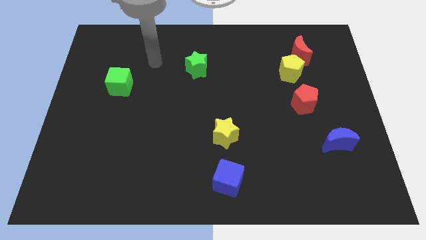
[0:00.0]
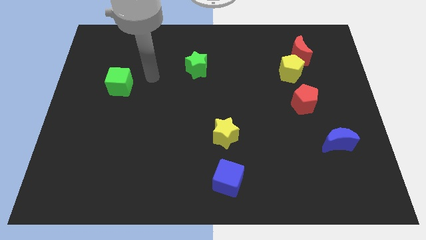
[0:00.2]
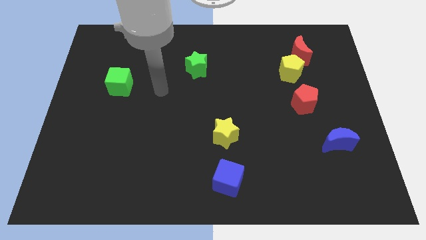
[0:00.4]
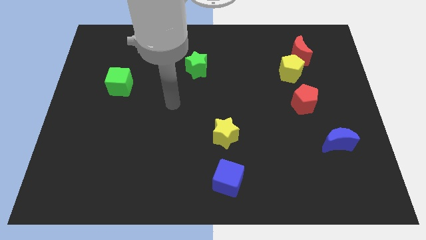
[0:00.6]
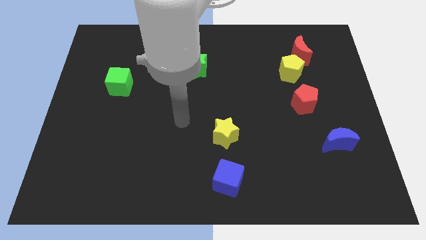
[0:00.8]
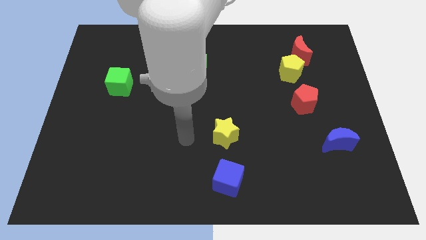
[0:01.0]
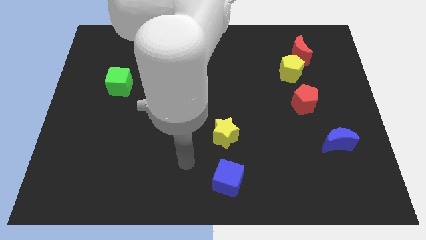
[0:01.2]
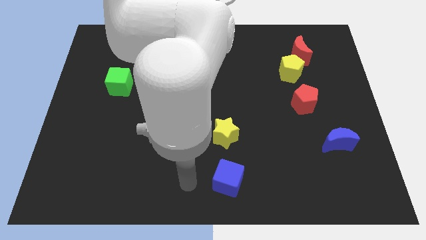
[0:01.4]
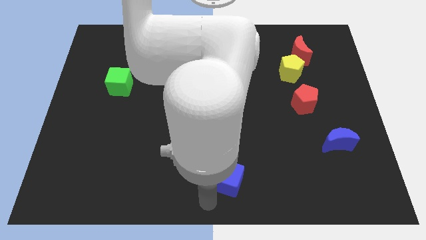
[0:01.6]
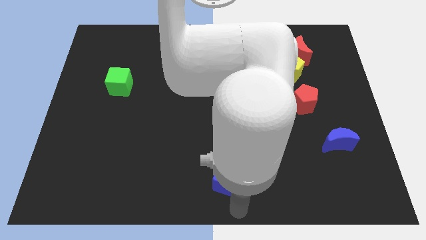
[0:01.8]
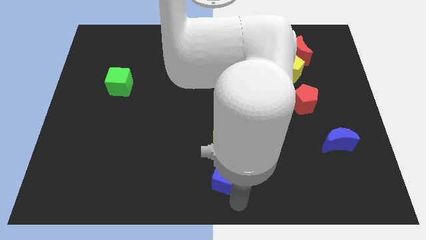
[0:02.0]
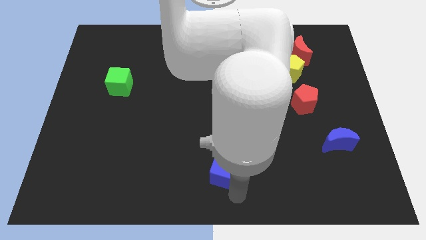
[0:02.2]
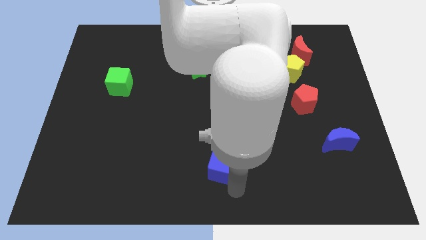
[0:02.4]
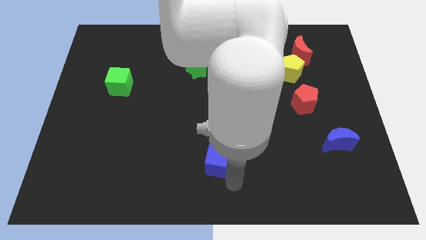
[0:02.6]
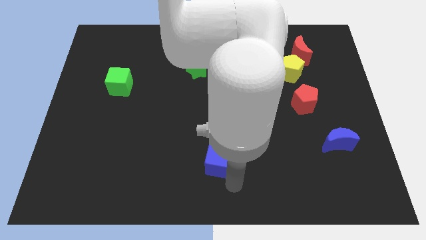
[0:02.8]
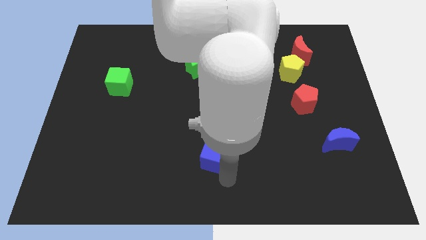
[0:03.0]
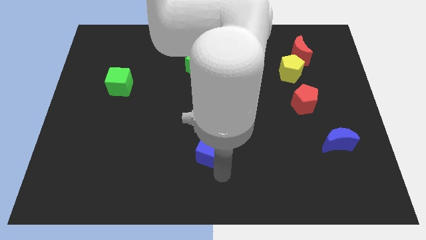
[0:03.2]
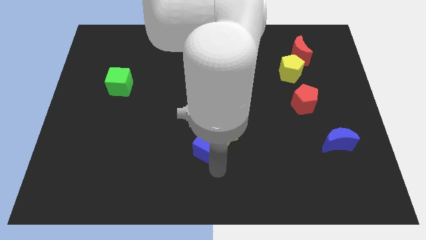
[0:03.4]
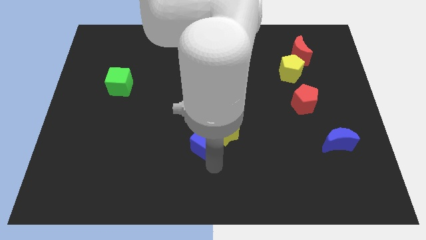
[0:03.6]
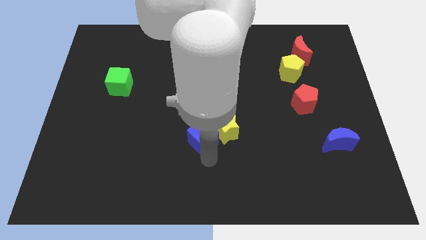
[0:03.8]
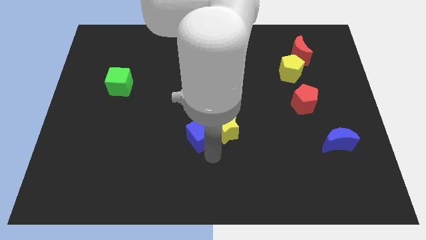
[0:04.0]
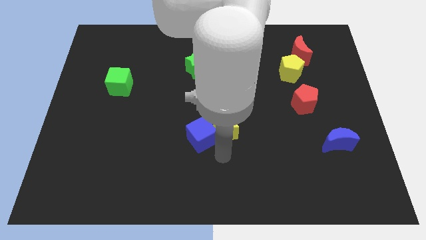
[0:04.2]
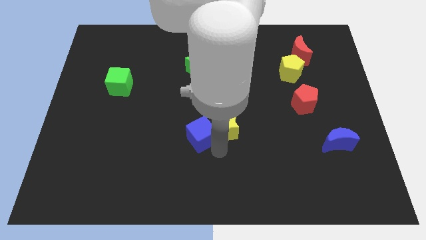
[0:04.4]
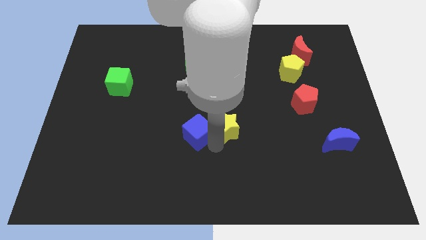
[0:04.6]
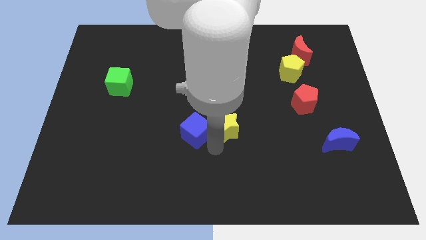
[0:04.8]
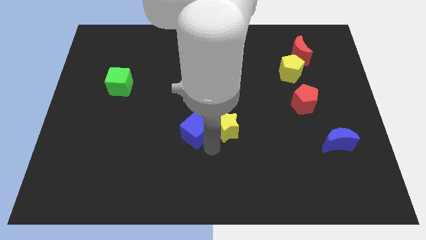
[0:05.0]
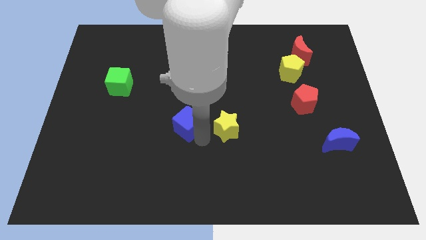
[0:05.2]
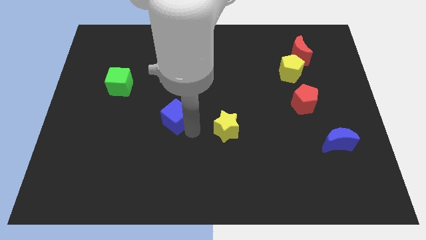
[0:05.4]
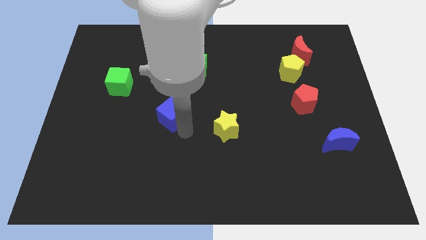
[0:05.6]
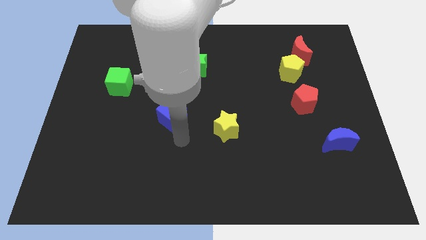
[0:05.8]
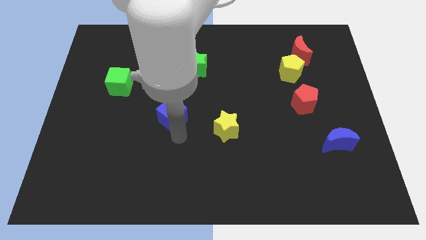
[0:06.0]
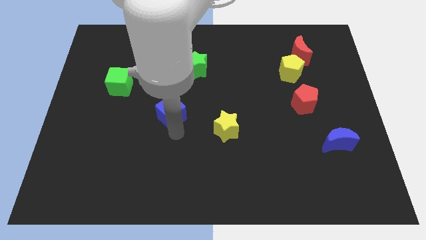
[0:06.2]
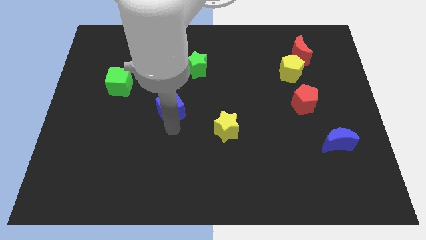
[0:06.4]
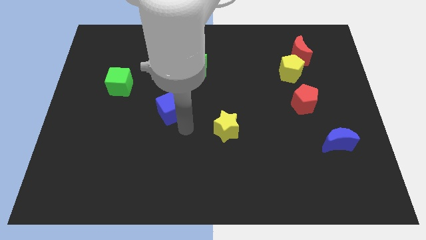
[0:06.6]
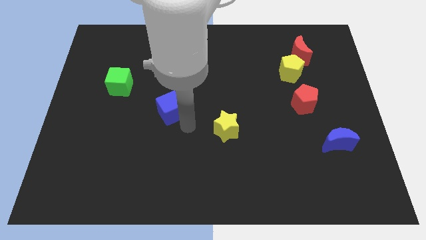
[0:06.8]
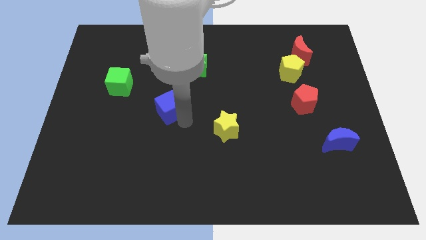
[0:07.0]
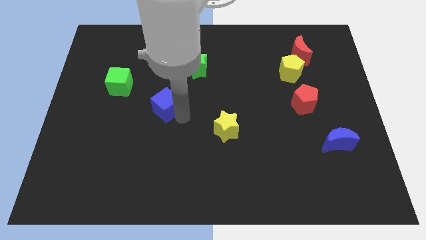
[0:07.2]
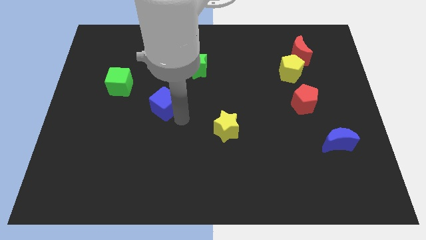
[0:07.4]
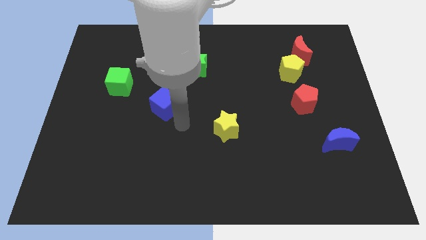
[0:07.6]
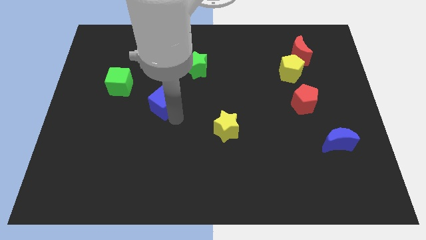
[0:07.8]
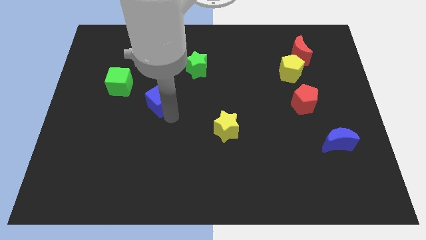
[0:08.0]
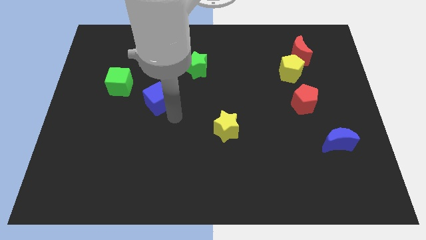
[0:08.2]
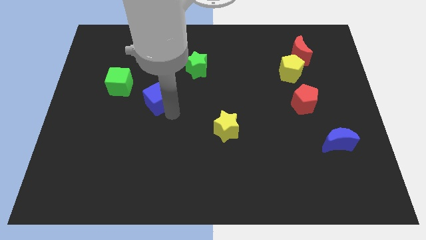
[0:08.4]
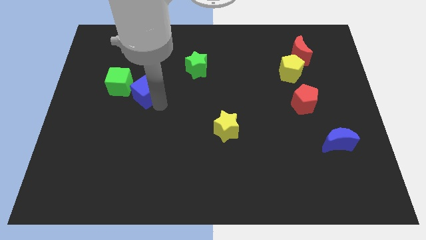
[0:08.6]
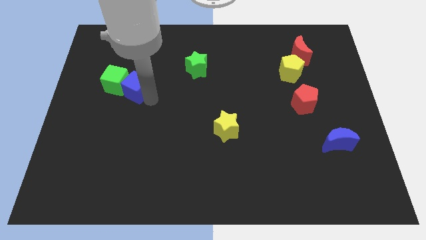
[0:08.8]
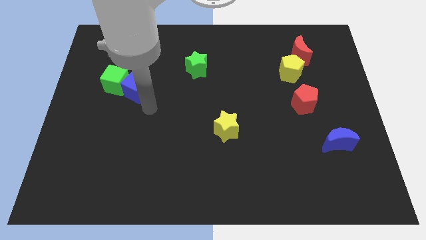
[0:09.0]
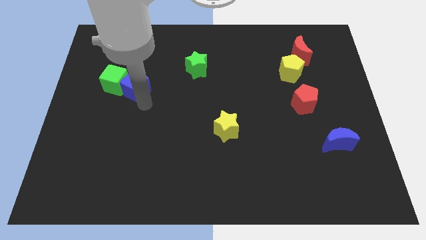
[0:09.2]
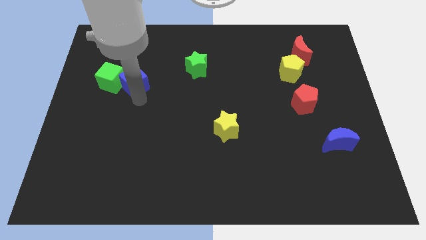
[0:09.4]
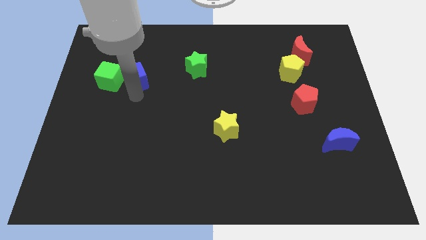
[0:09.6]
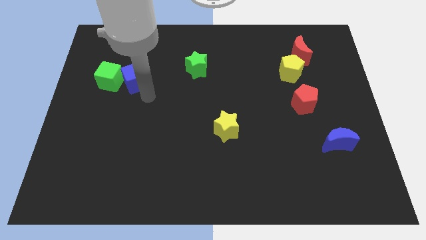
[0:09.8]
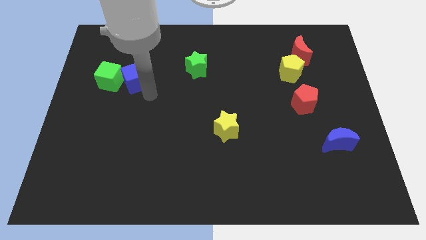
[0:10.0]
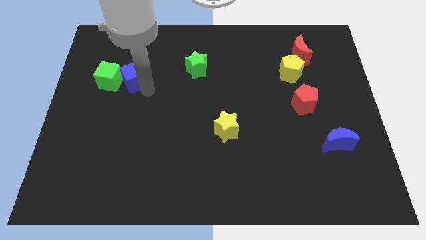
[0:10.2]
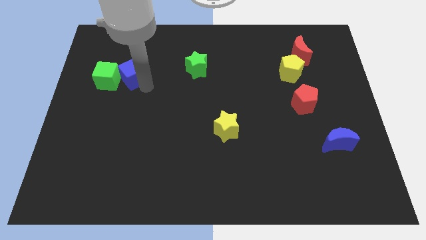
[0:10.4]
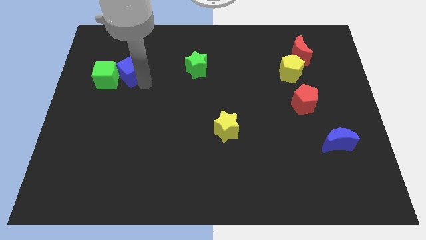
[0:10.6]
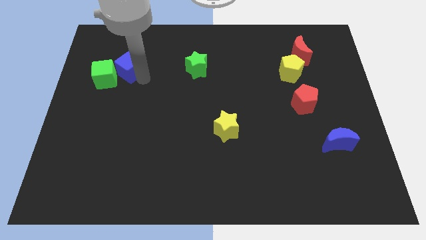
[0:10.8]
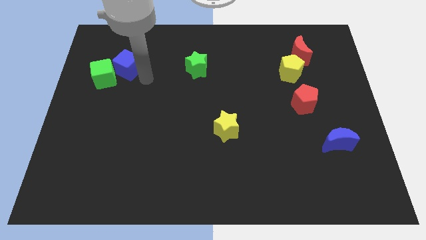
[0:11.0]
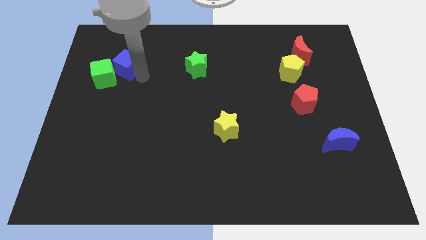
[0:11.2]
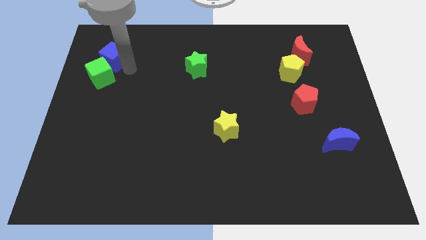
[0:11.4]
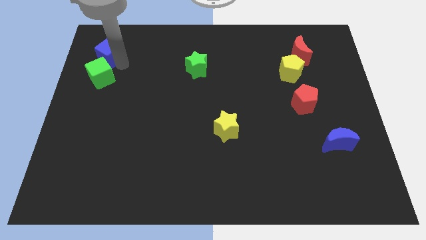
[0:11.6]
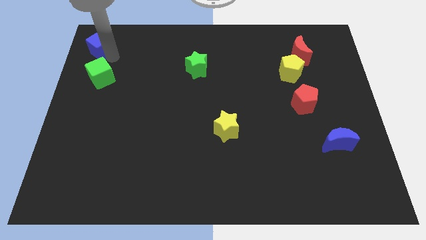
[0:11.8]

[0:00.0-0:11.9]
put the blue cube to the upper left corner
